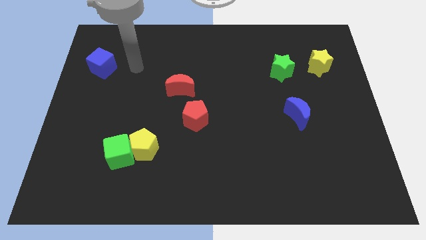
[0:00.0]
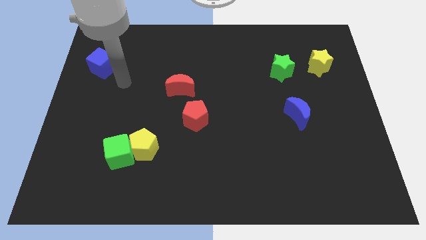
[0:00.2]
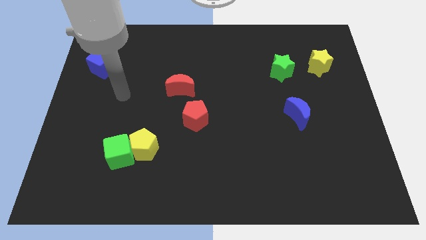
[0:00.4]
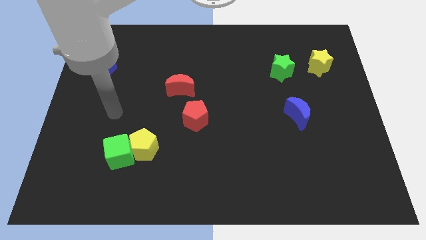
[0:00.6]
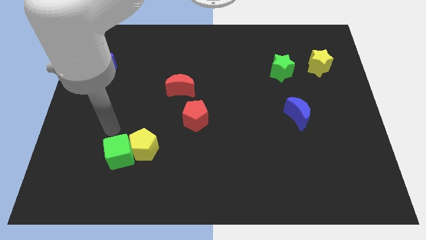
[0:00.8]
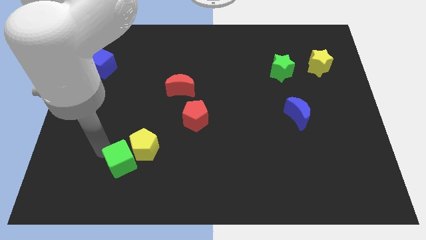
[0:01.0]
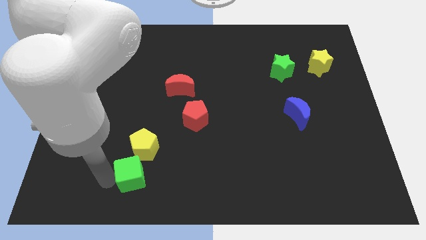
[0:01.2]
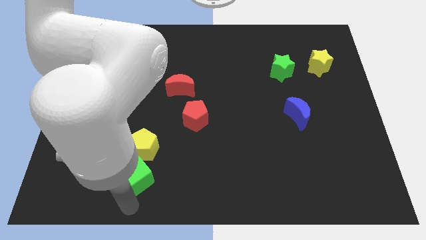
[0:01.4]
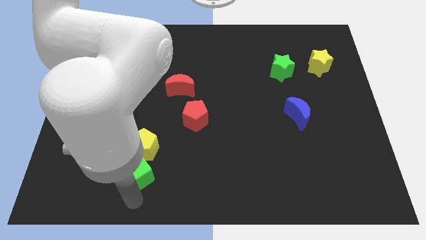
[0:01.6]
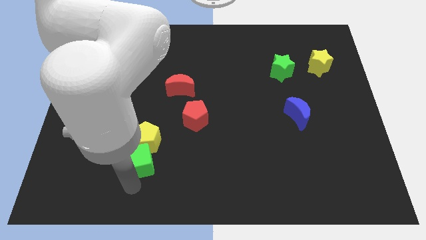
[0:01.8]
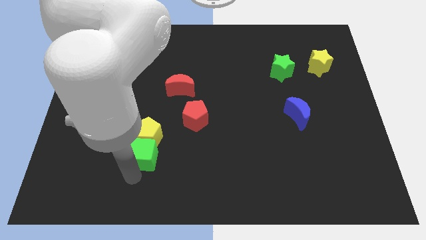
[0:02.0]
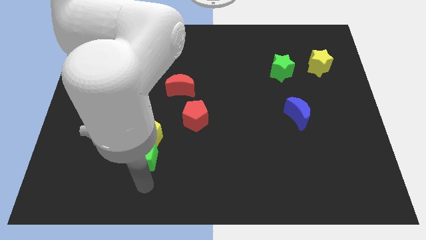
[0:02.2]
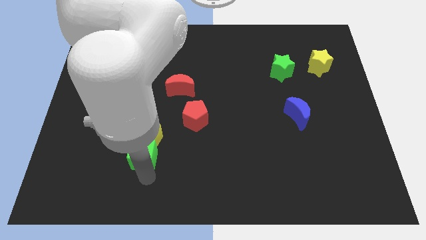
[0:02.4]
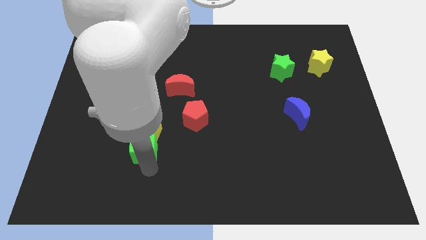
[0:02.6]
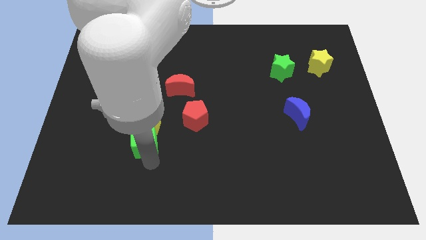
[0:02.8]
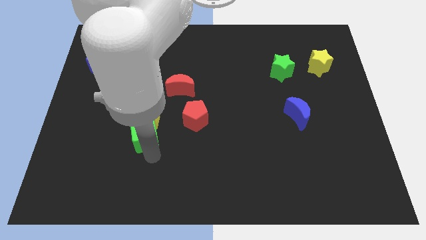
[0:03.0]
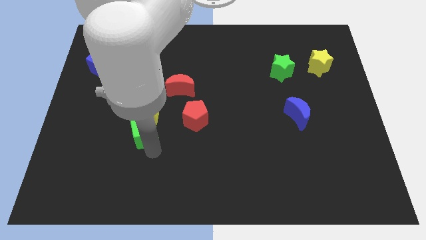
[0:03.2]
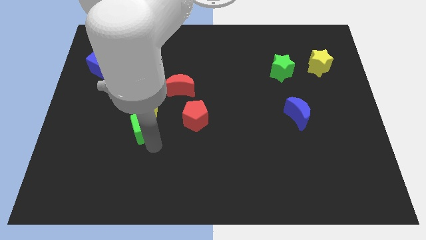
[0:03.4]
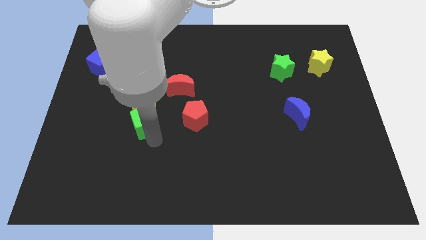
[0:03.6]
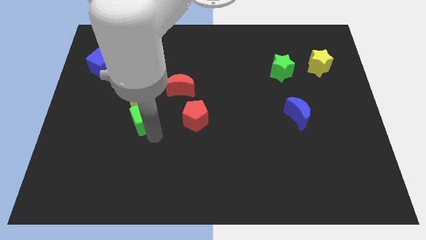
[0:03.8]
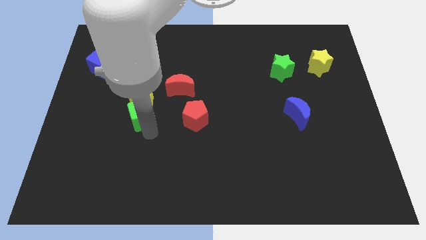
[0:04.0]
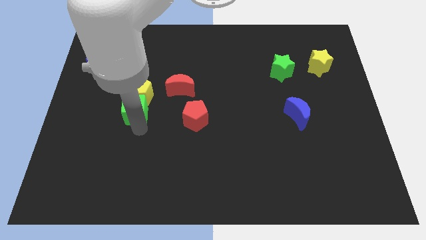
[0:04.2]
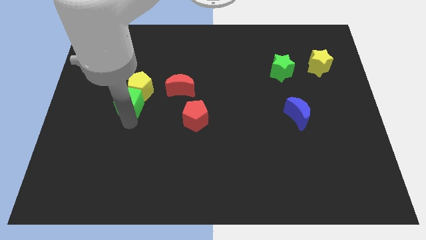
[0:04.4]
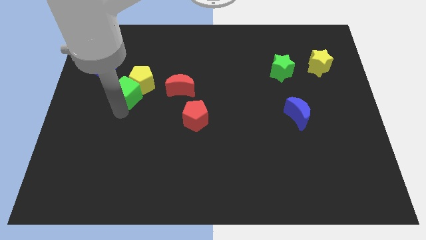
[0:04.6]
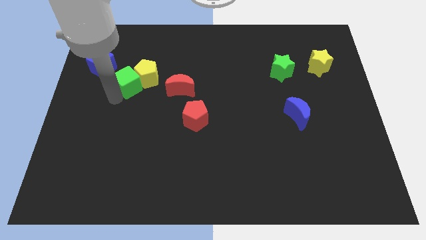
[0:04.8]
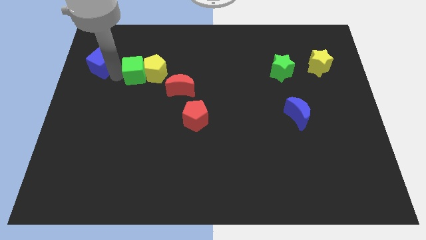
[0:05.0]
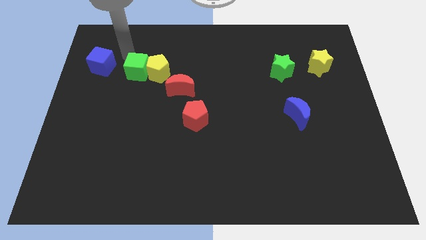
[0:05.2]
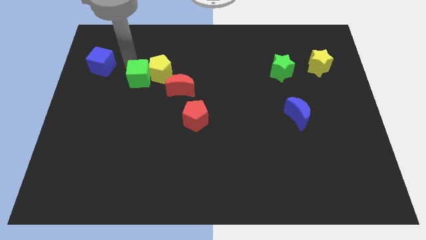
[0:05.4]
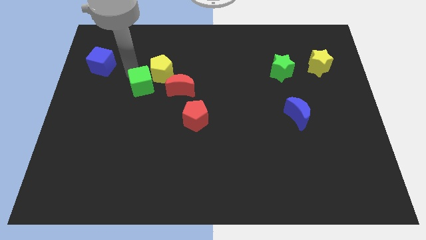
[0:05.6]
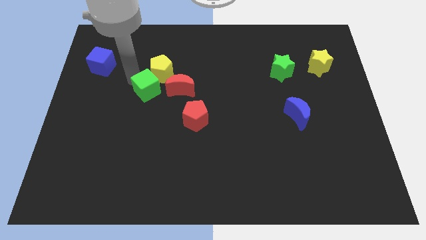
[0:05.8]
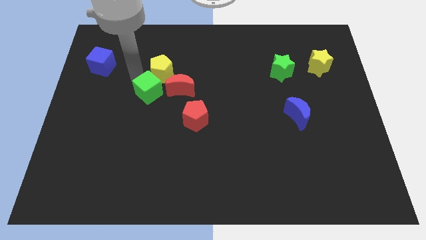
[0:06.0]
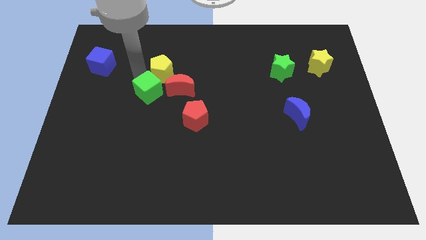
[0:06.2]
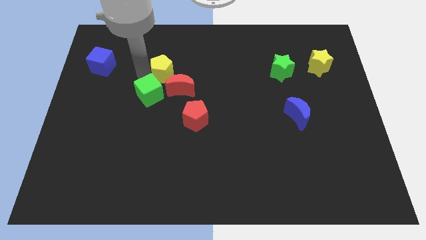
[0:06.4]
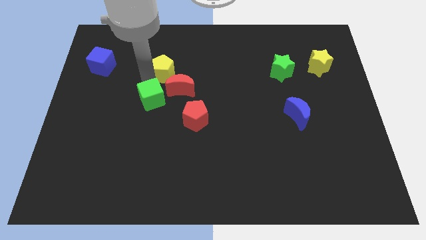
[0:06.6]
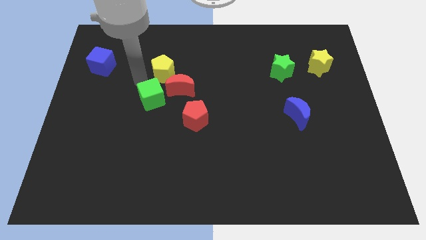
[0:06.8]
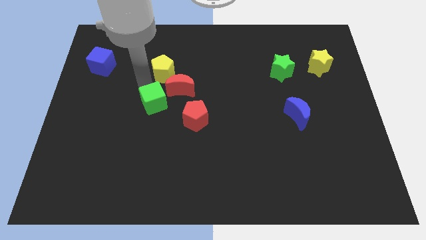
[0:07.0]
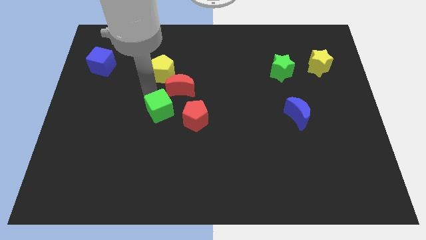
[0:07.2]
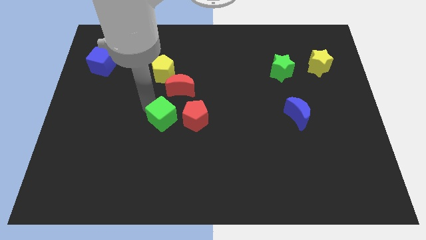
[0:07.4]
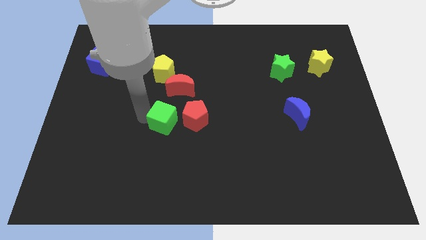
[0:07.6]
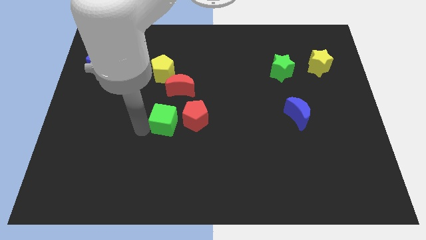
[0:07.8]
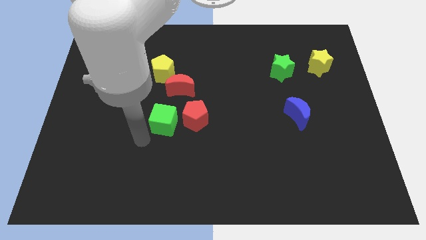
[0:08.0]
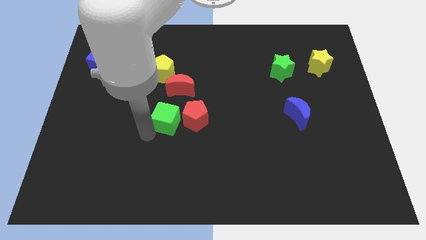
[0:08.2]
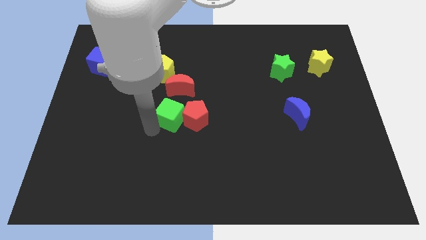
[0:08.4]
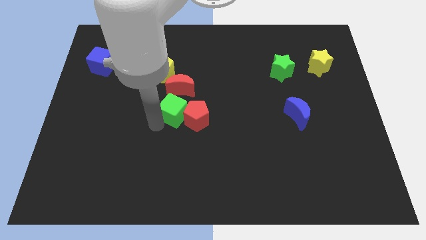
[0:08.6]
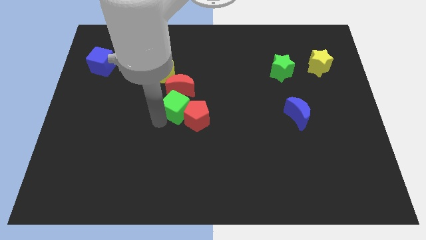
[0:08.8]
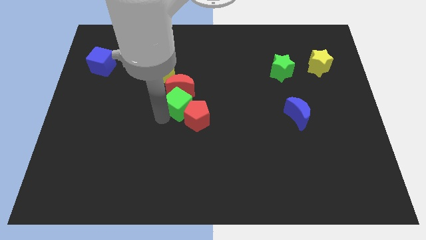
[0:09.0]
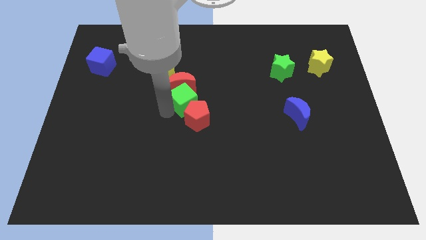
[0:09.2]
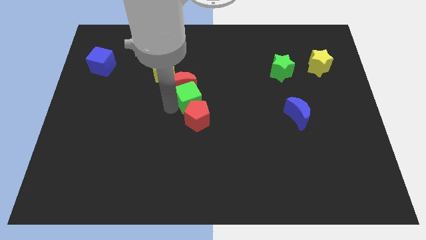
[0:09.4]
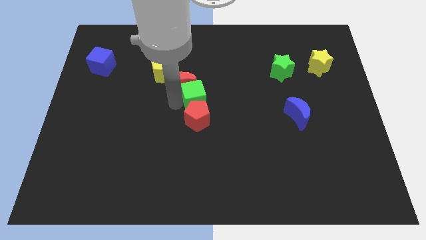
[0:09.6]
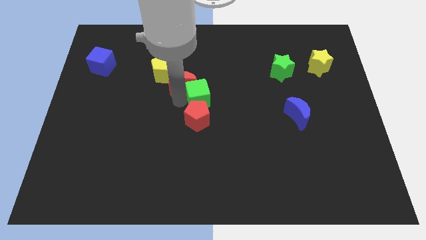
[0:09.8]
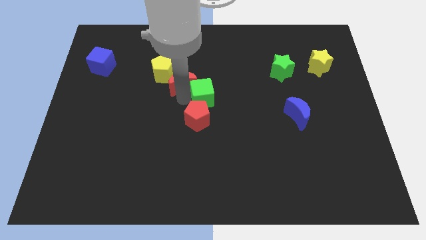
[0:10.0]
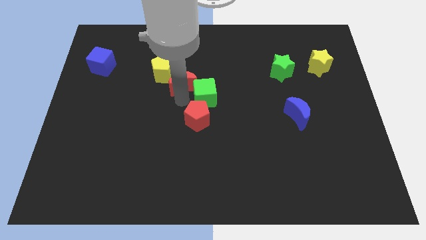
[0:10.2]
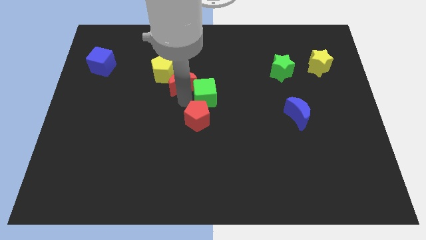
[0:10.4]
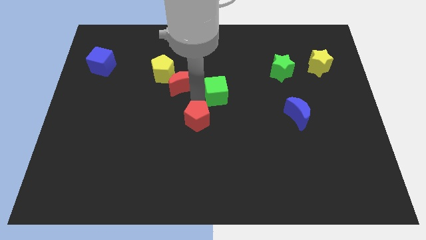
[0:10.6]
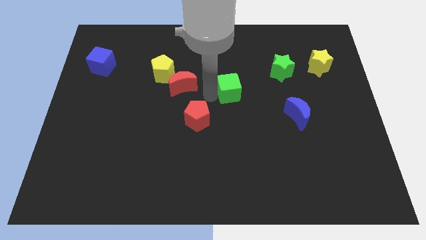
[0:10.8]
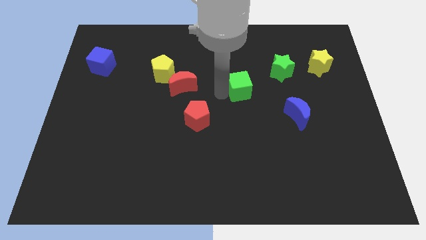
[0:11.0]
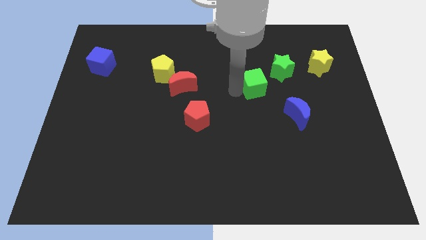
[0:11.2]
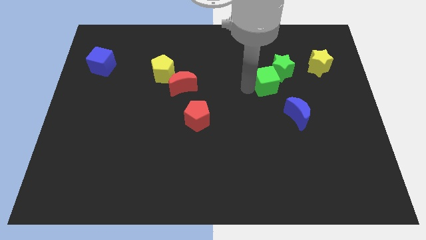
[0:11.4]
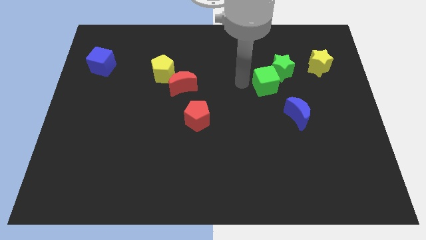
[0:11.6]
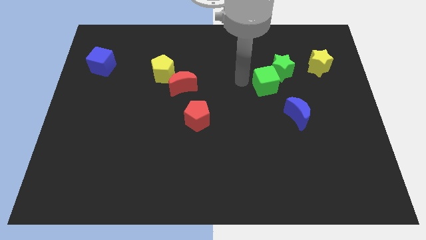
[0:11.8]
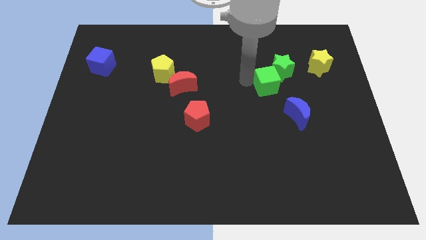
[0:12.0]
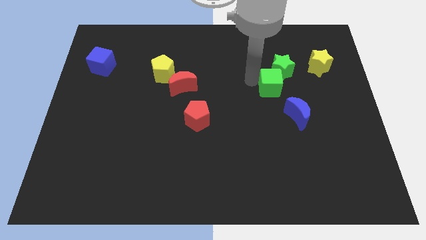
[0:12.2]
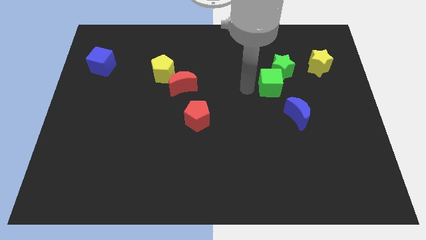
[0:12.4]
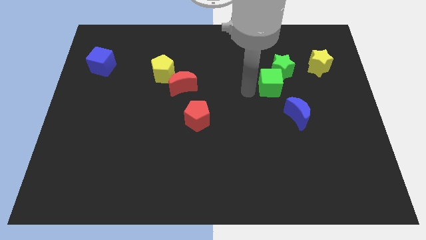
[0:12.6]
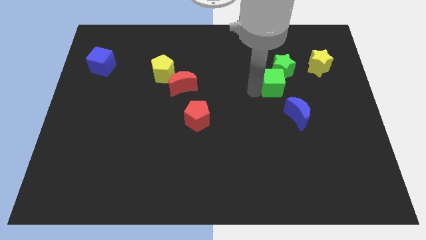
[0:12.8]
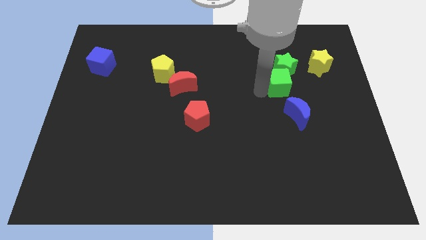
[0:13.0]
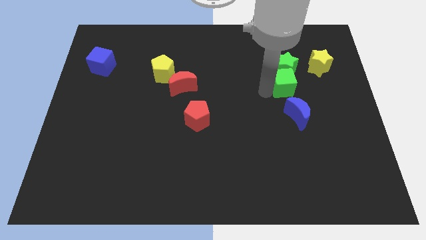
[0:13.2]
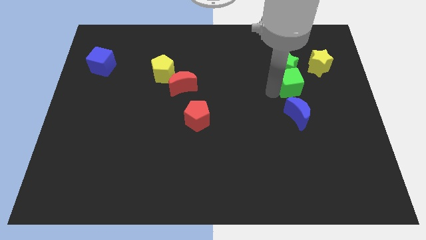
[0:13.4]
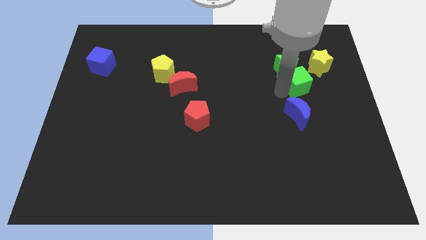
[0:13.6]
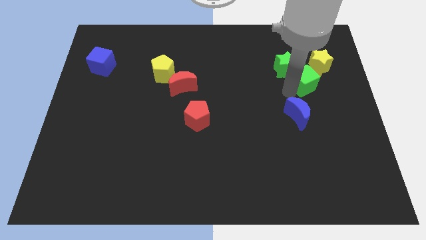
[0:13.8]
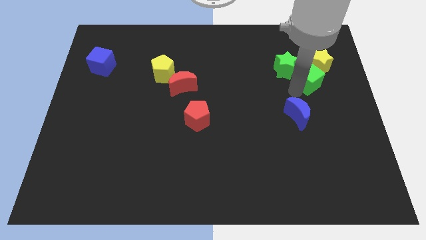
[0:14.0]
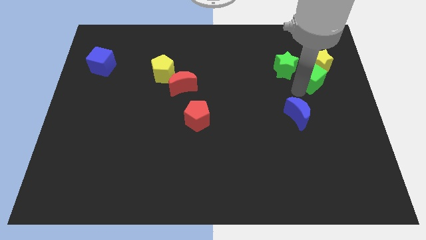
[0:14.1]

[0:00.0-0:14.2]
slide the green cube towards the yellow star
